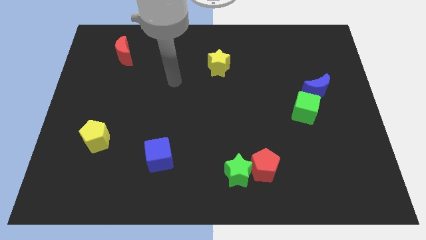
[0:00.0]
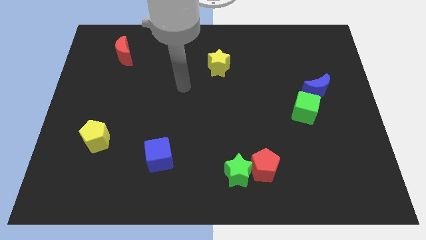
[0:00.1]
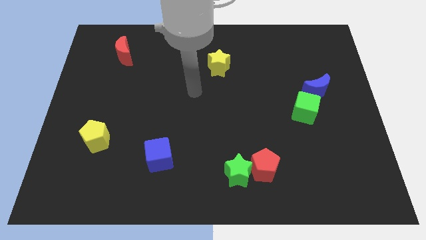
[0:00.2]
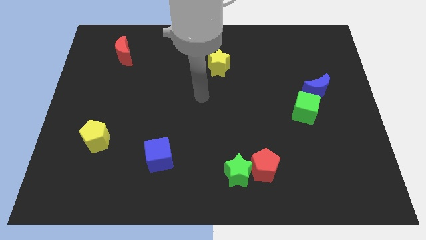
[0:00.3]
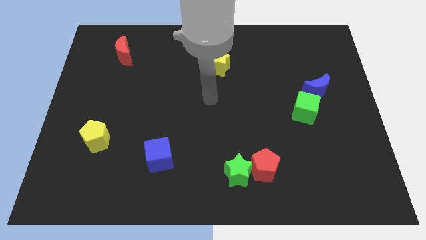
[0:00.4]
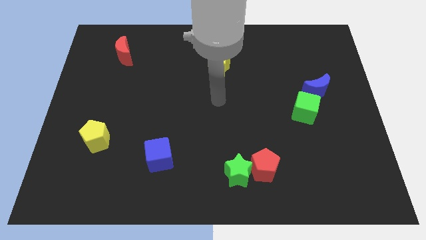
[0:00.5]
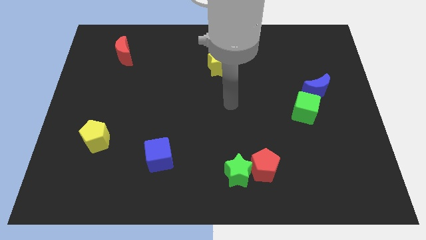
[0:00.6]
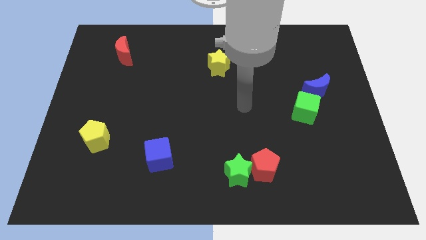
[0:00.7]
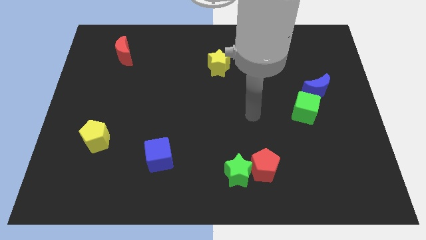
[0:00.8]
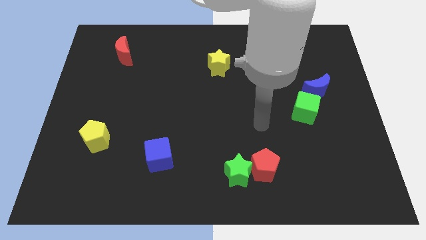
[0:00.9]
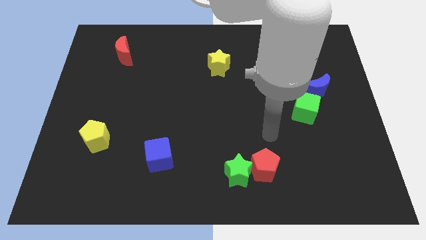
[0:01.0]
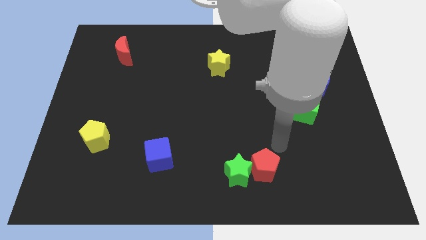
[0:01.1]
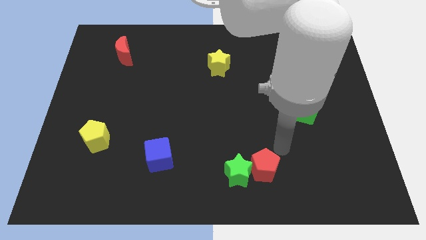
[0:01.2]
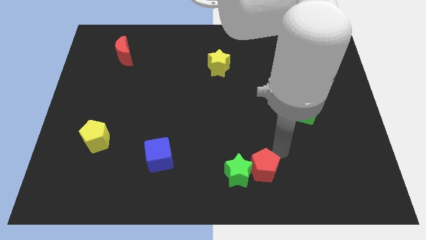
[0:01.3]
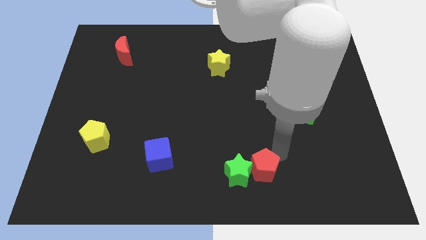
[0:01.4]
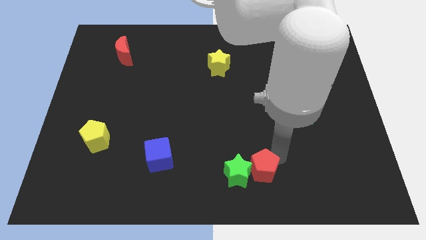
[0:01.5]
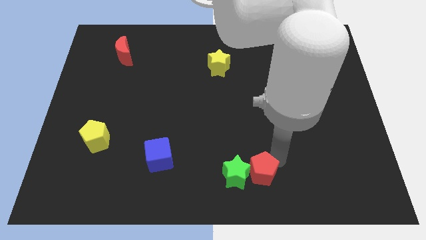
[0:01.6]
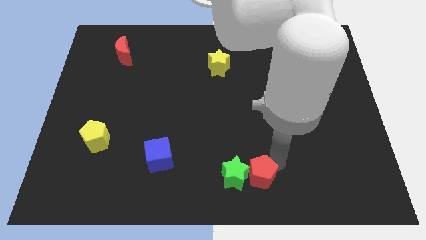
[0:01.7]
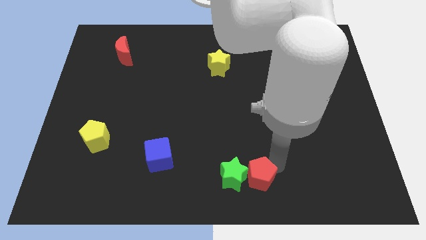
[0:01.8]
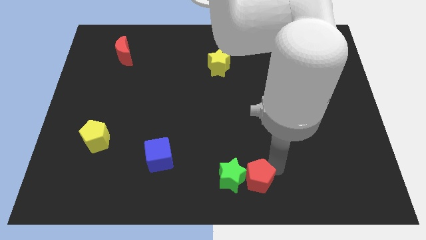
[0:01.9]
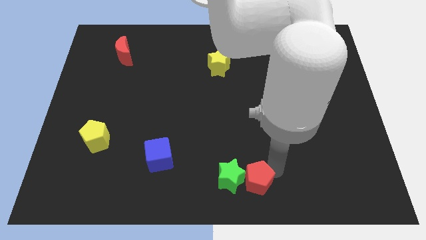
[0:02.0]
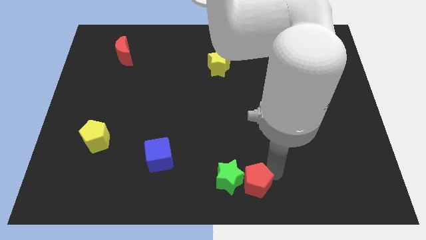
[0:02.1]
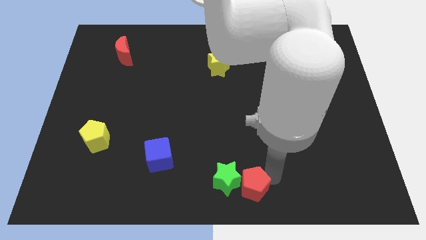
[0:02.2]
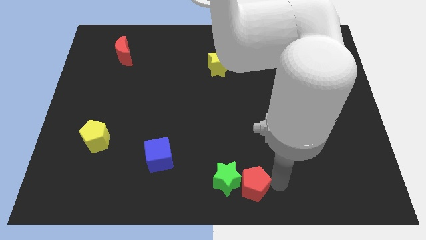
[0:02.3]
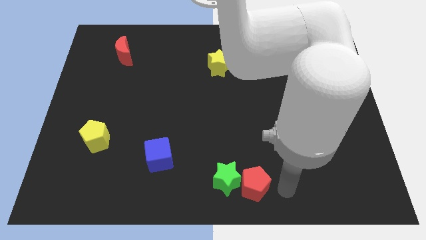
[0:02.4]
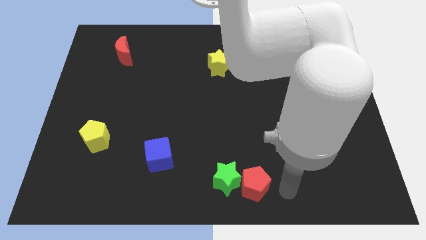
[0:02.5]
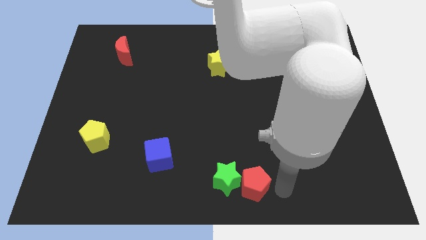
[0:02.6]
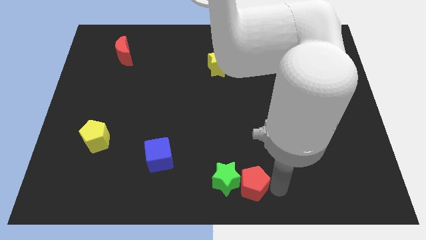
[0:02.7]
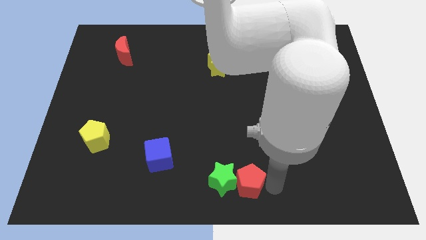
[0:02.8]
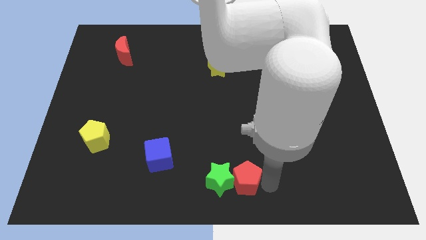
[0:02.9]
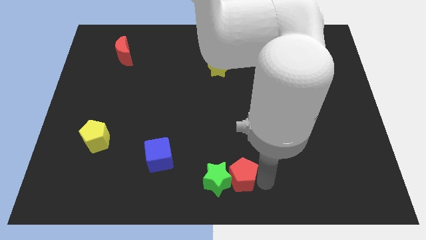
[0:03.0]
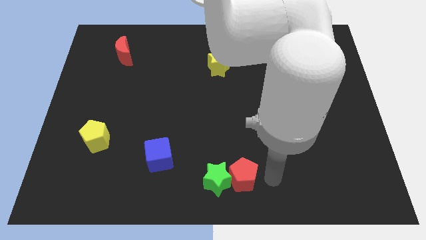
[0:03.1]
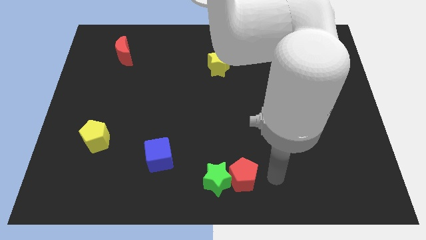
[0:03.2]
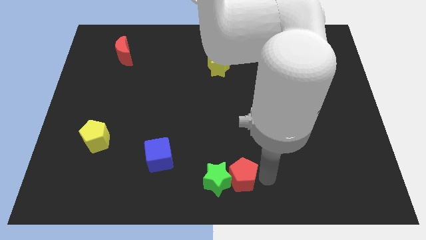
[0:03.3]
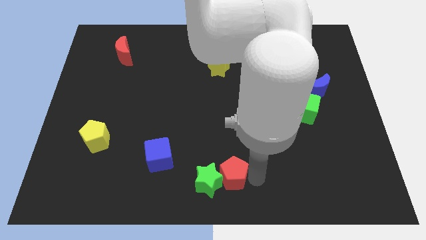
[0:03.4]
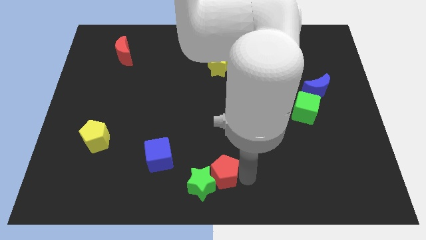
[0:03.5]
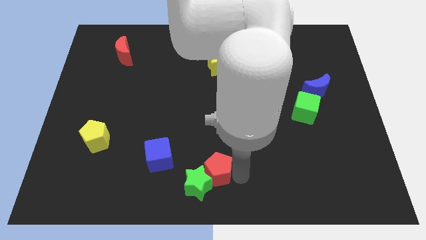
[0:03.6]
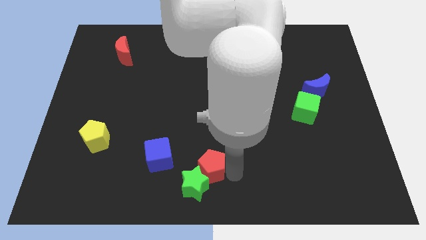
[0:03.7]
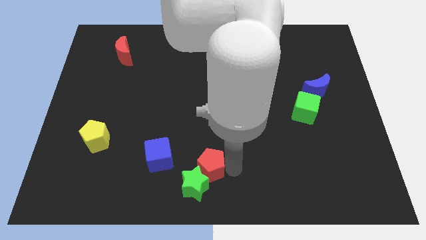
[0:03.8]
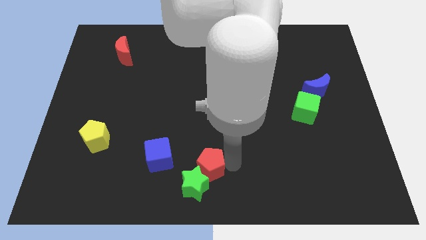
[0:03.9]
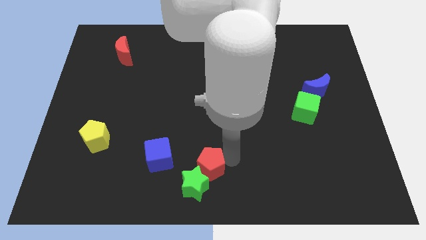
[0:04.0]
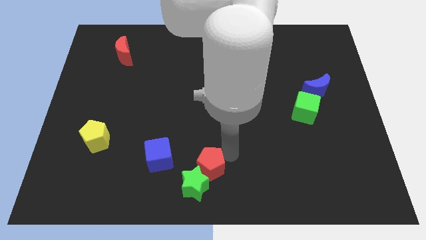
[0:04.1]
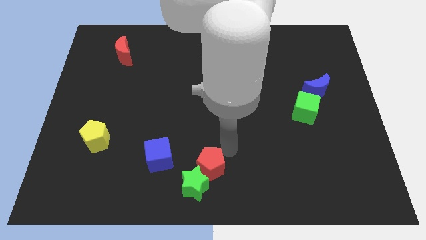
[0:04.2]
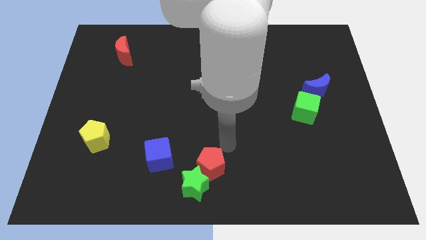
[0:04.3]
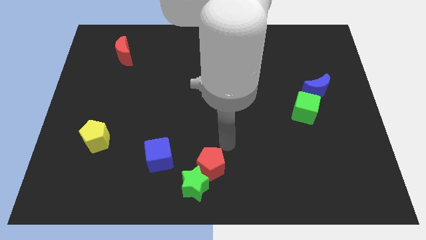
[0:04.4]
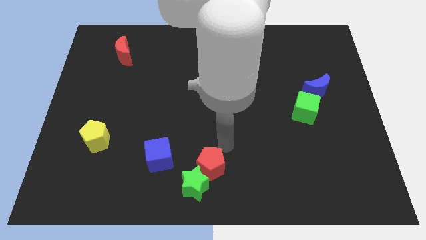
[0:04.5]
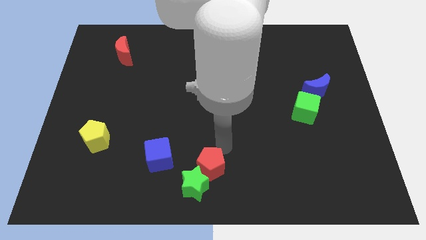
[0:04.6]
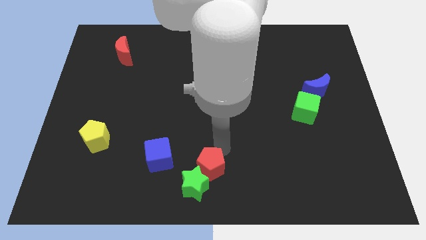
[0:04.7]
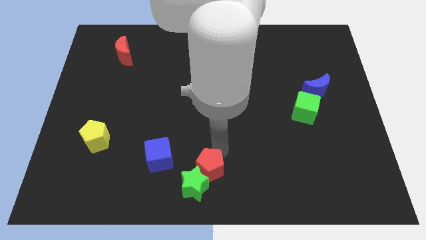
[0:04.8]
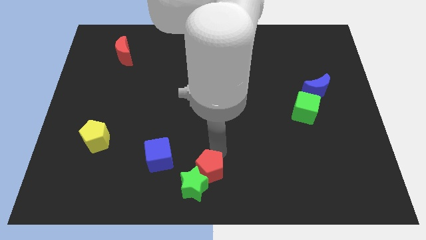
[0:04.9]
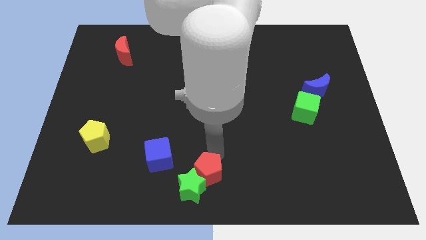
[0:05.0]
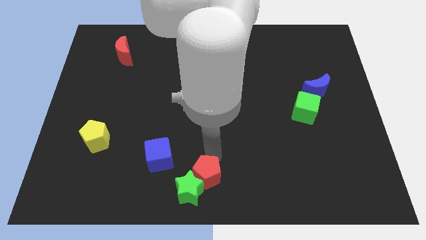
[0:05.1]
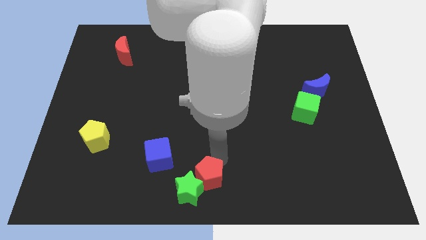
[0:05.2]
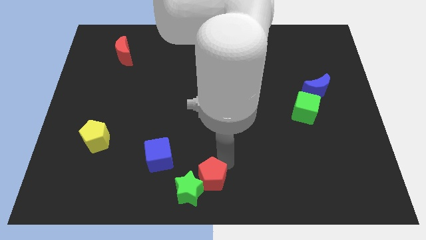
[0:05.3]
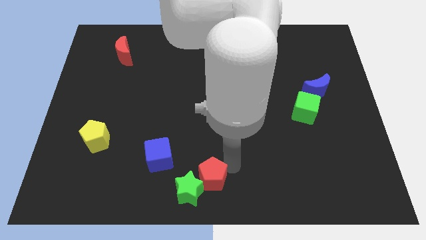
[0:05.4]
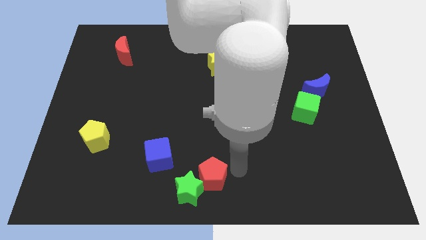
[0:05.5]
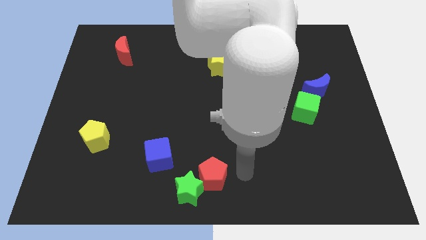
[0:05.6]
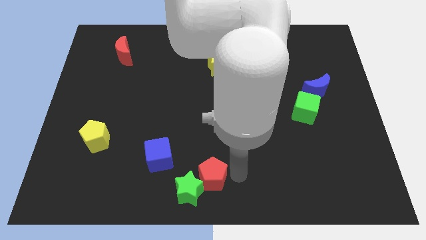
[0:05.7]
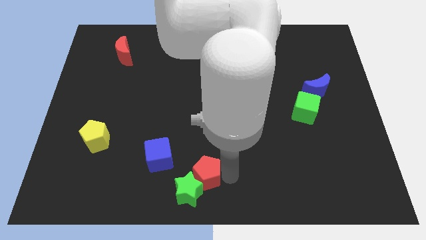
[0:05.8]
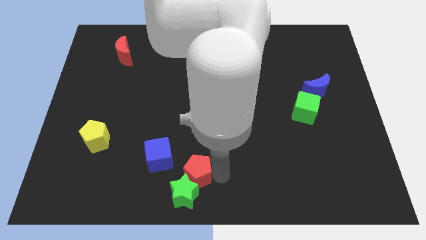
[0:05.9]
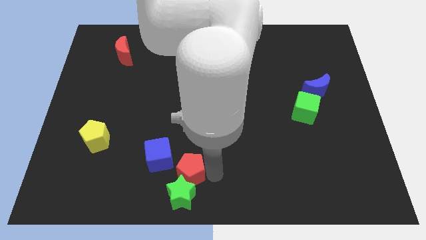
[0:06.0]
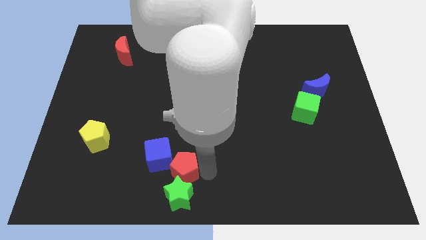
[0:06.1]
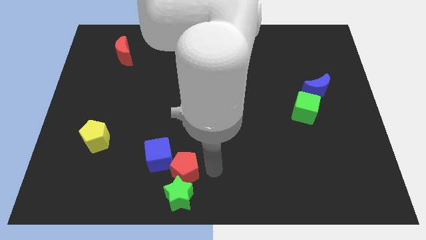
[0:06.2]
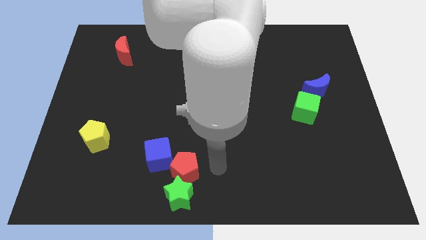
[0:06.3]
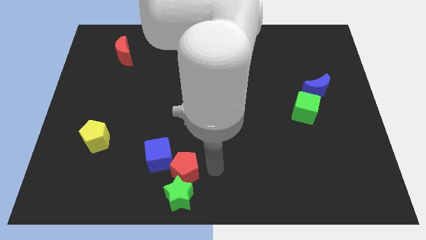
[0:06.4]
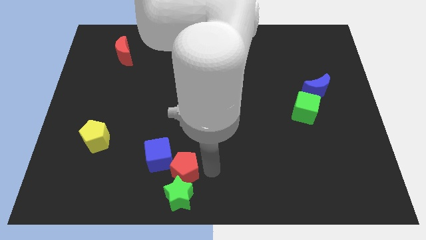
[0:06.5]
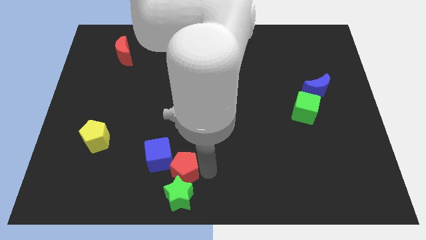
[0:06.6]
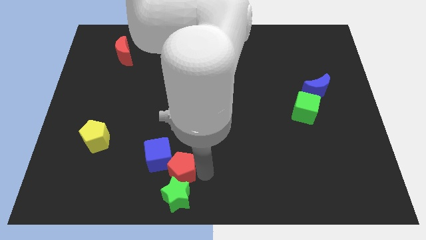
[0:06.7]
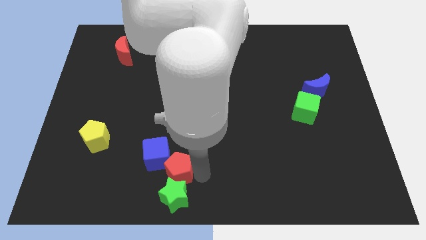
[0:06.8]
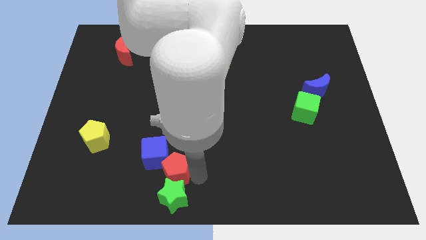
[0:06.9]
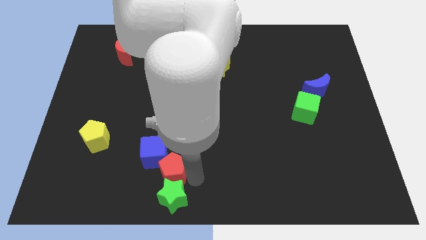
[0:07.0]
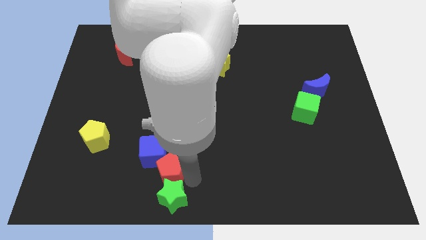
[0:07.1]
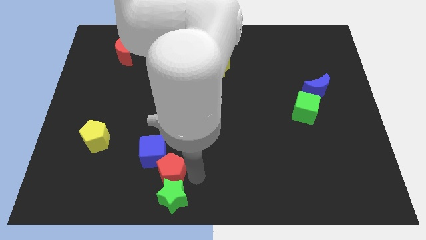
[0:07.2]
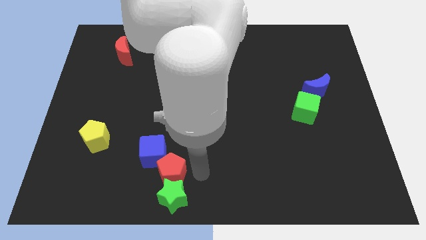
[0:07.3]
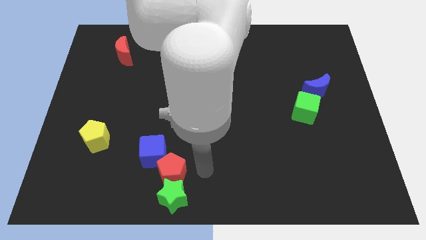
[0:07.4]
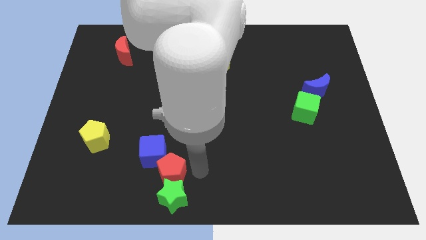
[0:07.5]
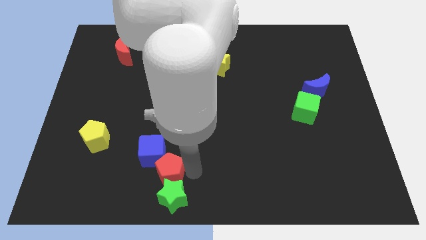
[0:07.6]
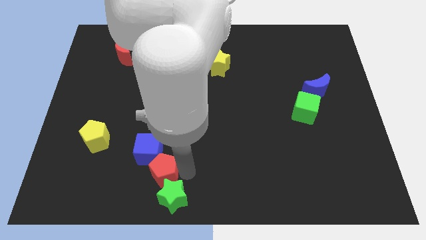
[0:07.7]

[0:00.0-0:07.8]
slide the red pentagon left

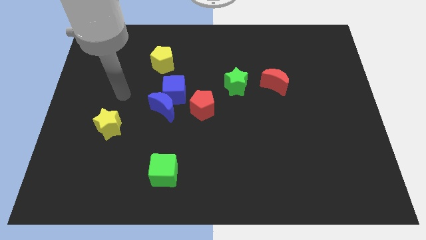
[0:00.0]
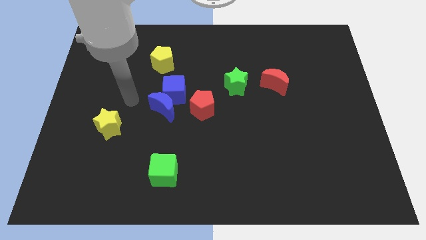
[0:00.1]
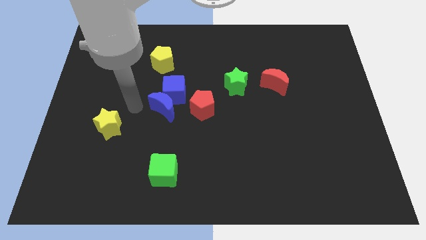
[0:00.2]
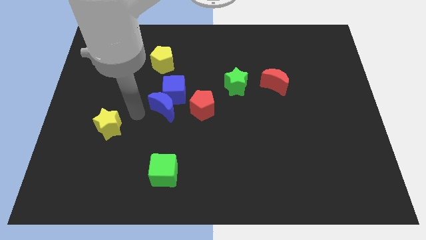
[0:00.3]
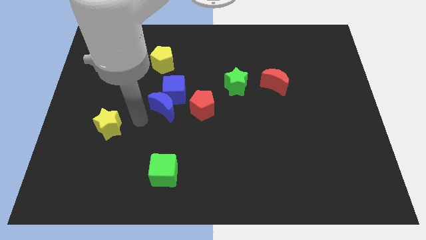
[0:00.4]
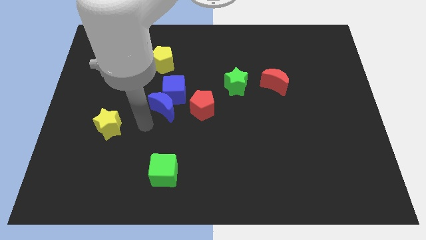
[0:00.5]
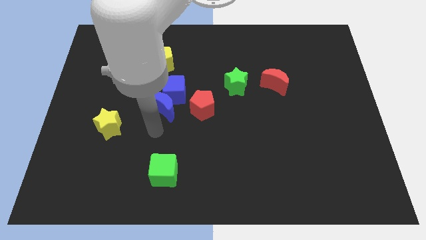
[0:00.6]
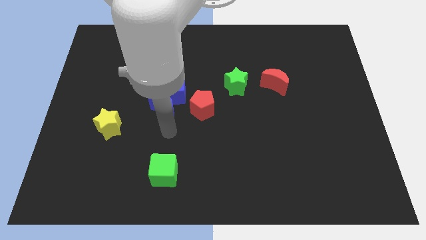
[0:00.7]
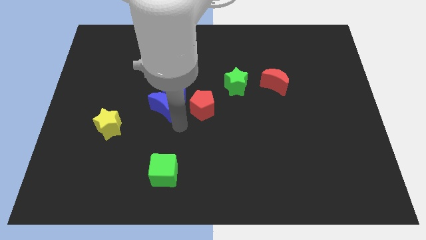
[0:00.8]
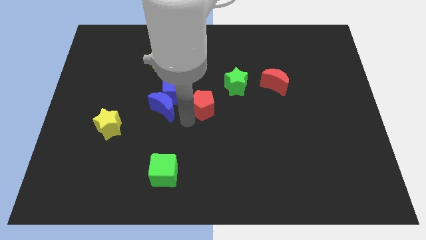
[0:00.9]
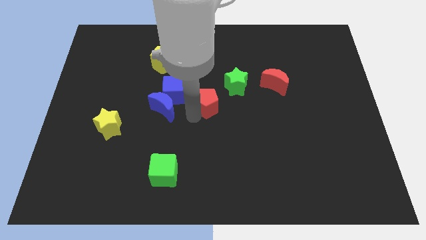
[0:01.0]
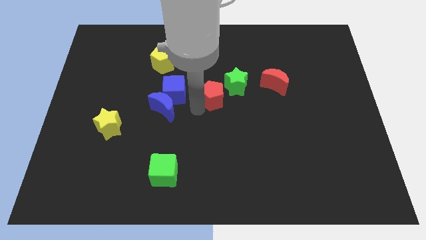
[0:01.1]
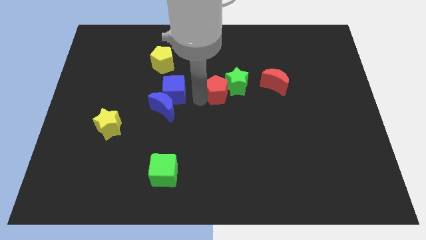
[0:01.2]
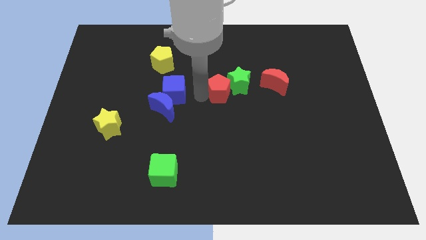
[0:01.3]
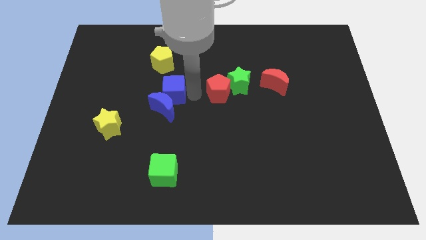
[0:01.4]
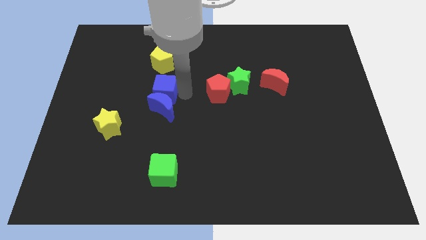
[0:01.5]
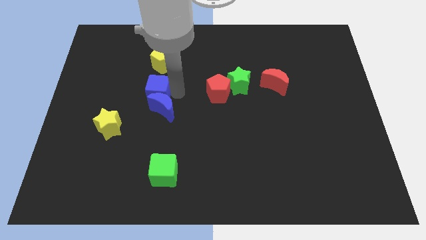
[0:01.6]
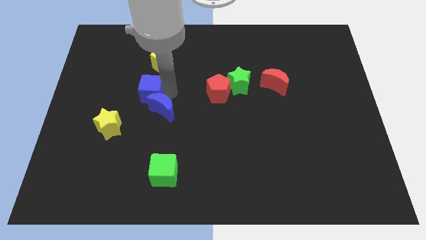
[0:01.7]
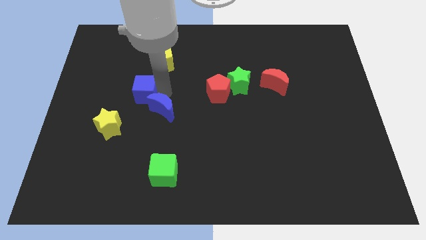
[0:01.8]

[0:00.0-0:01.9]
move the blue cube somewhat left
